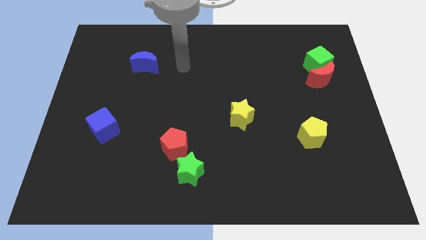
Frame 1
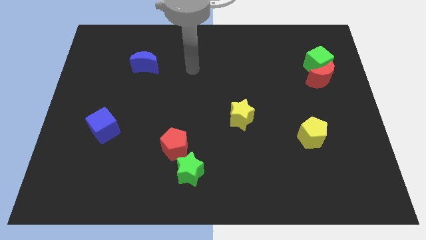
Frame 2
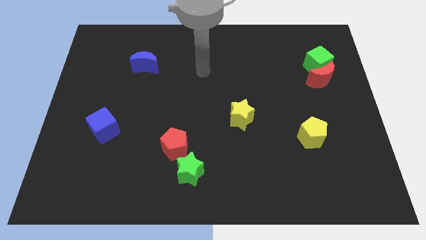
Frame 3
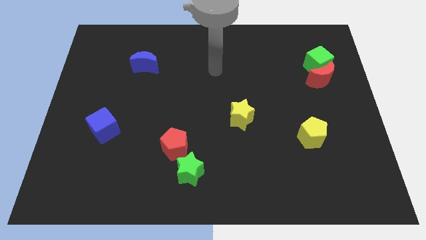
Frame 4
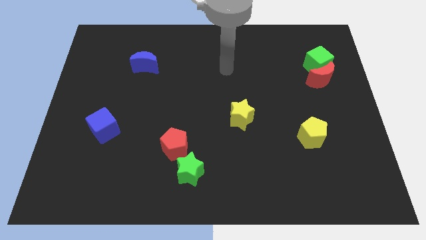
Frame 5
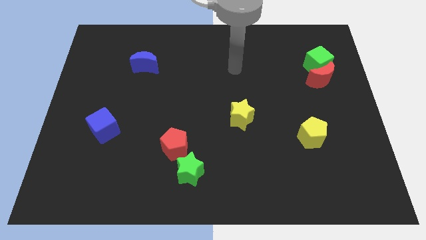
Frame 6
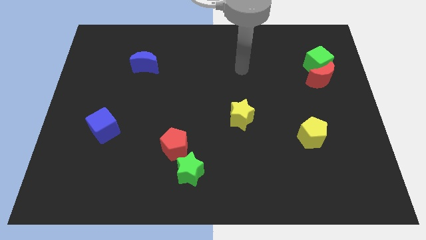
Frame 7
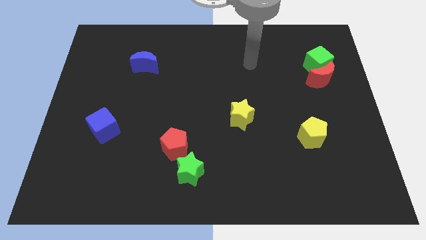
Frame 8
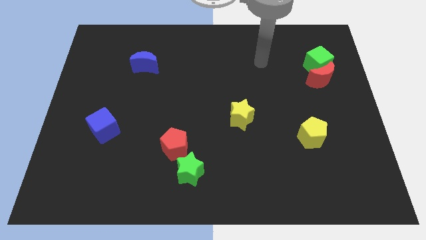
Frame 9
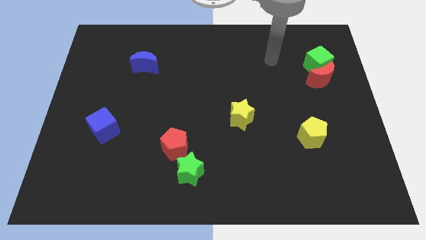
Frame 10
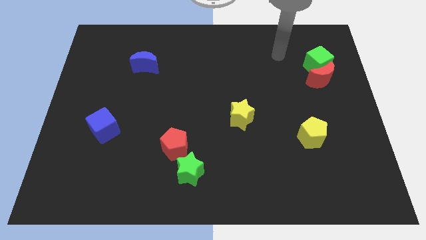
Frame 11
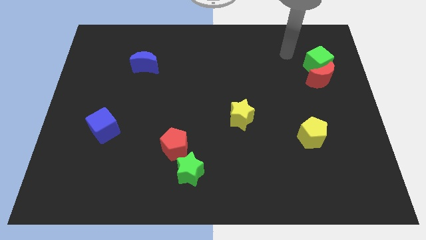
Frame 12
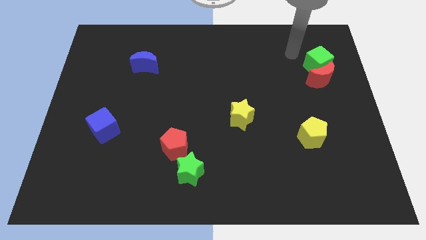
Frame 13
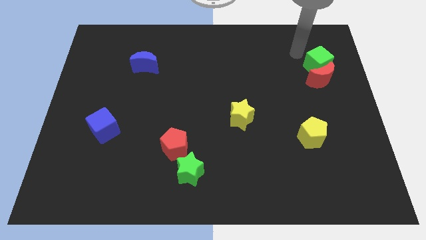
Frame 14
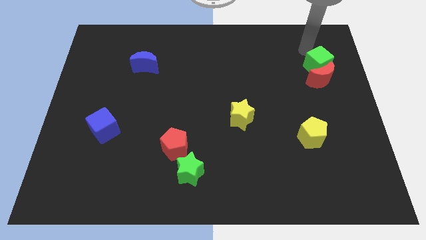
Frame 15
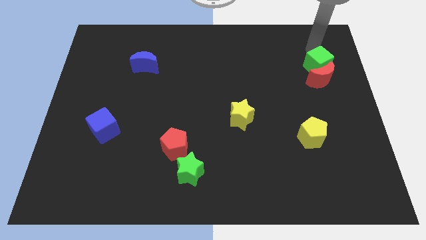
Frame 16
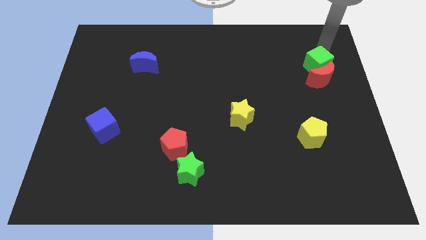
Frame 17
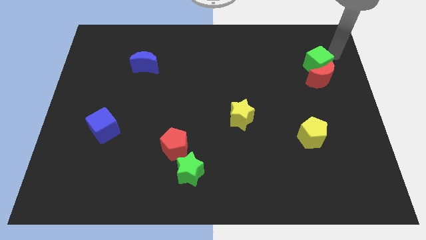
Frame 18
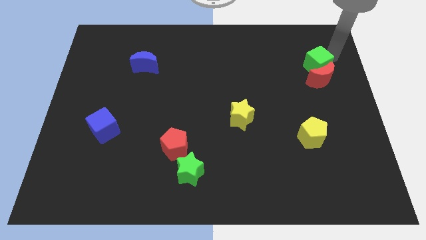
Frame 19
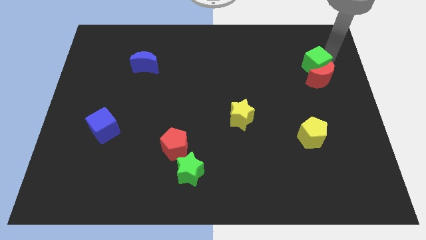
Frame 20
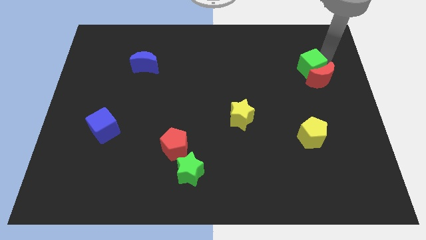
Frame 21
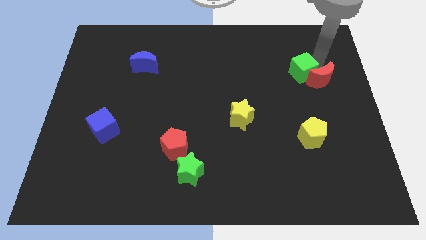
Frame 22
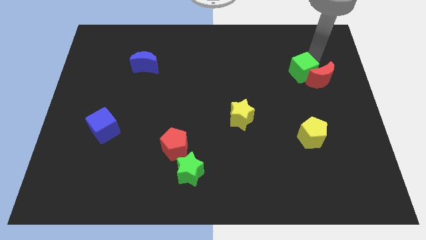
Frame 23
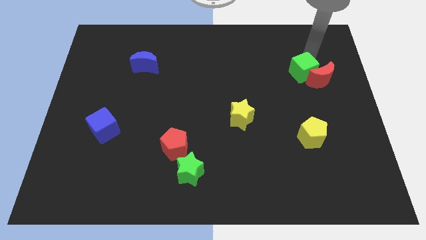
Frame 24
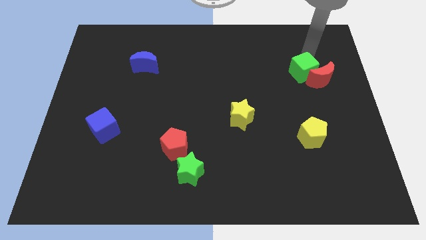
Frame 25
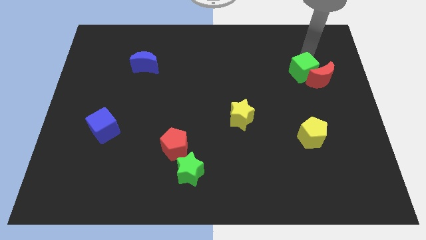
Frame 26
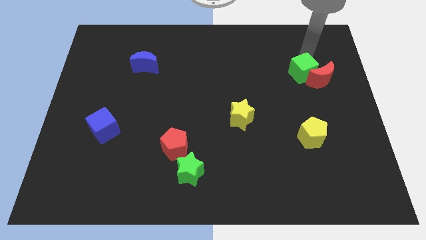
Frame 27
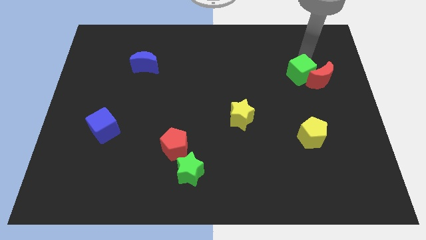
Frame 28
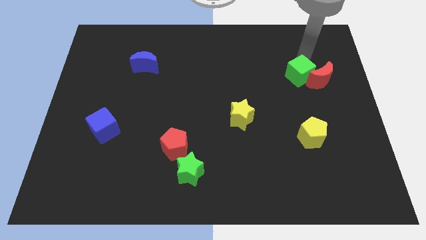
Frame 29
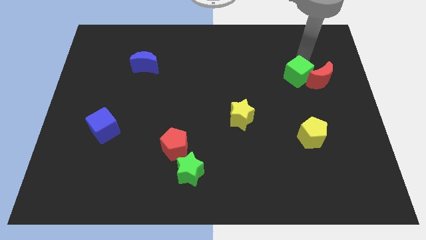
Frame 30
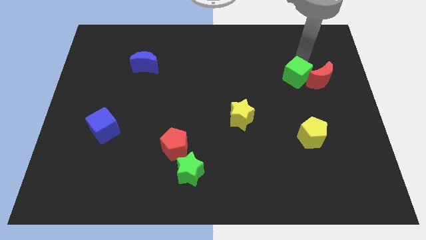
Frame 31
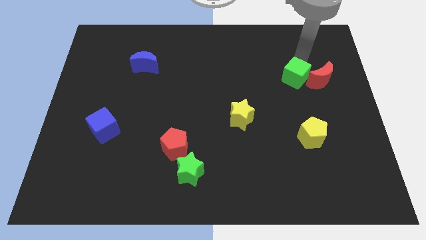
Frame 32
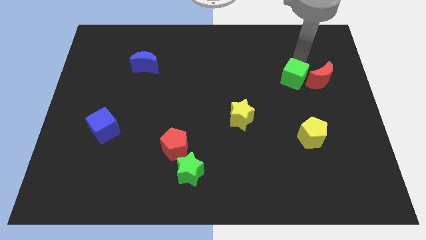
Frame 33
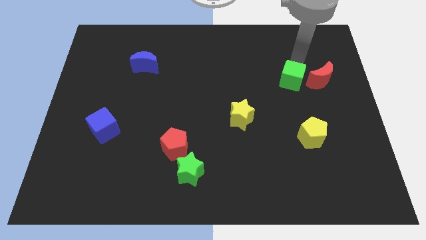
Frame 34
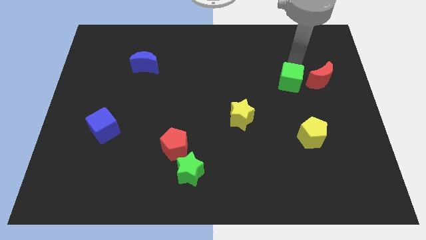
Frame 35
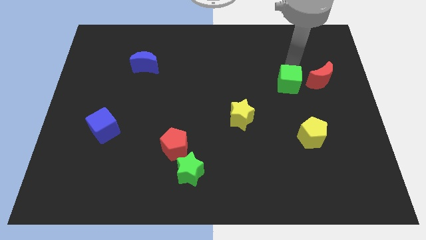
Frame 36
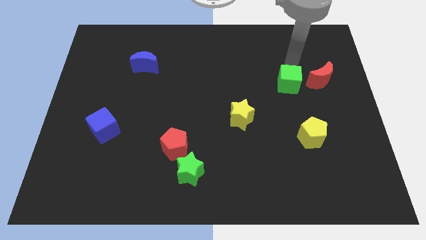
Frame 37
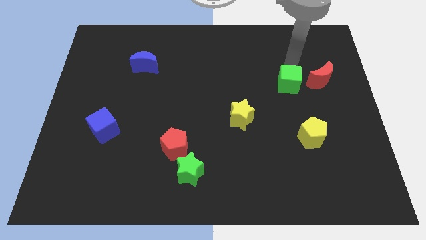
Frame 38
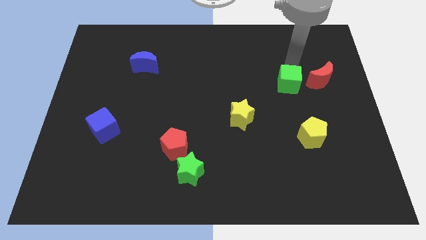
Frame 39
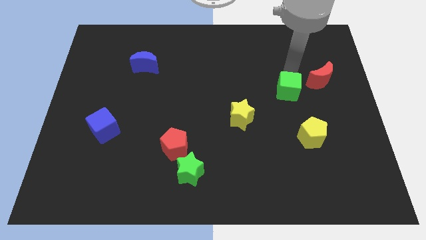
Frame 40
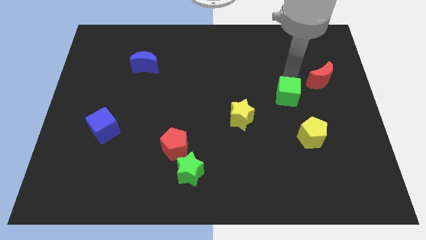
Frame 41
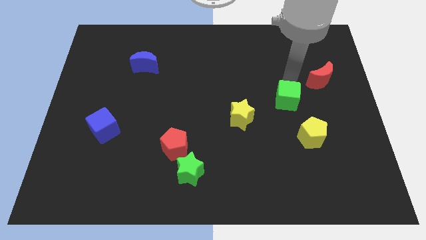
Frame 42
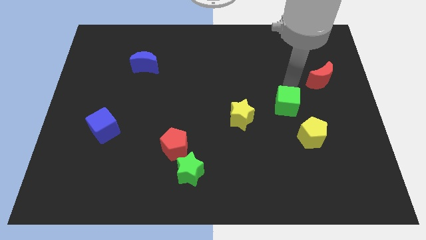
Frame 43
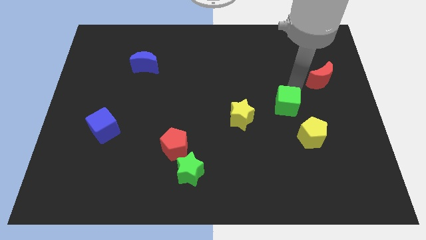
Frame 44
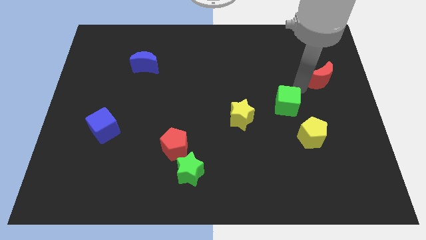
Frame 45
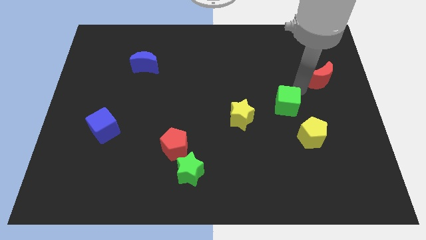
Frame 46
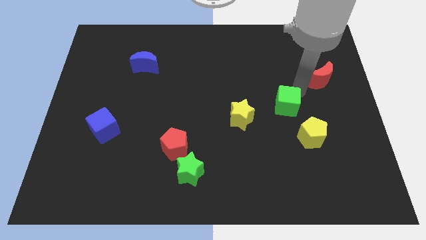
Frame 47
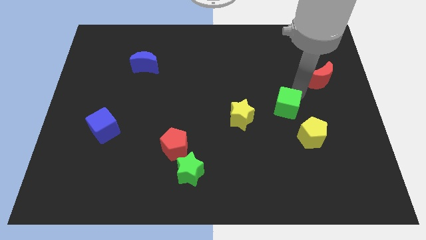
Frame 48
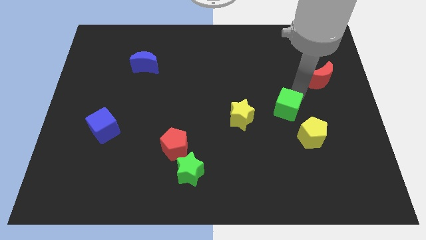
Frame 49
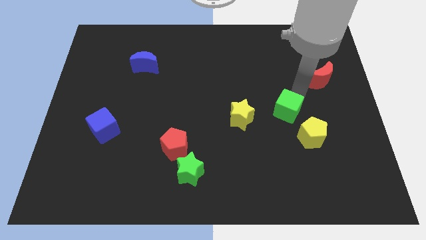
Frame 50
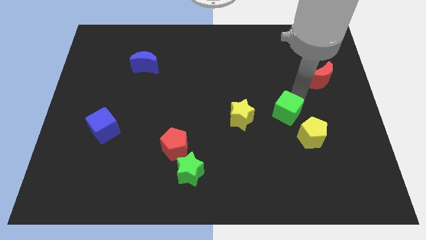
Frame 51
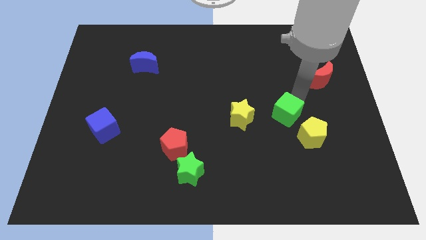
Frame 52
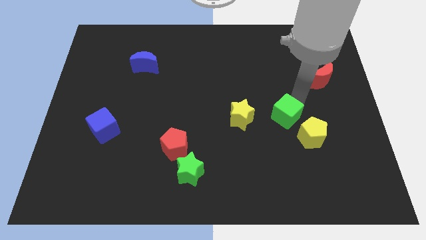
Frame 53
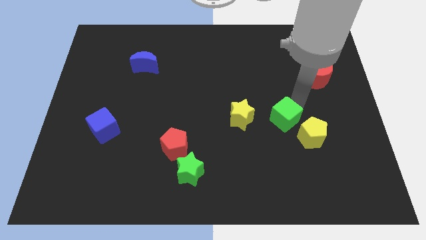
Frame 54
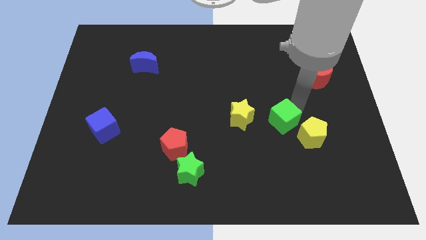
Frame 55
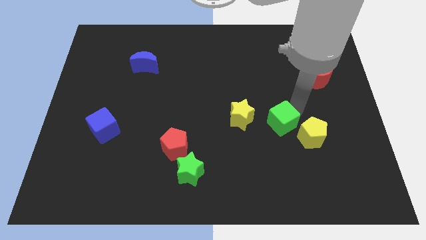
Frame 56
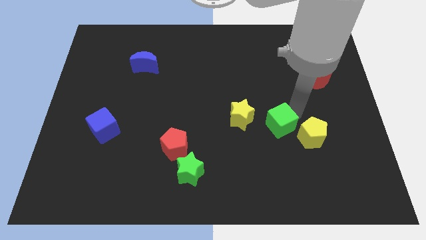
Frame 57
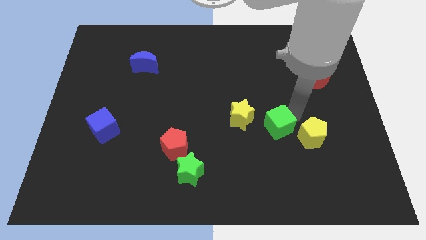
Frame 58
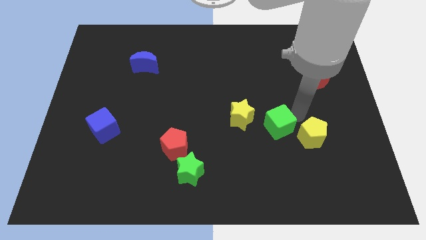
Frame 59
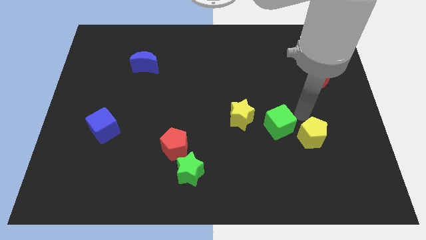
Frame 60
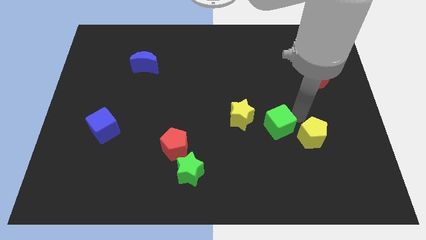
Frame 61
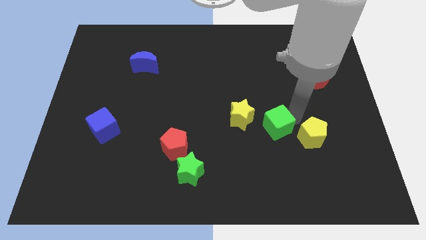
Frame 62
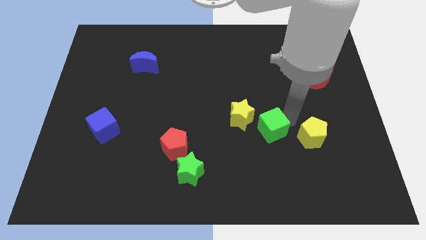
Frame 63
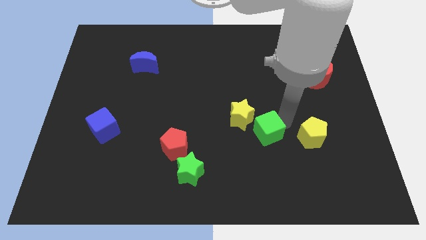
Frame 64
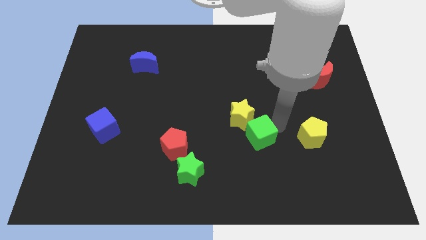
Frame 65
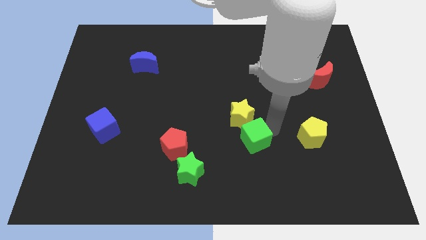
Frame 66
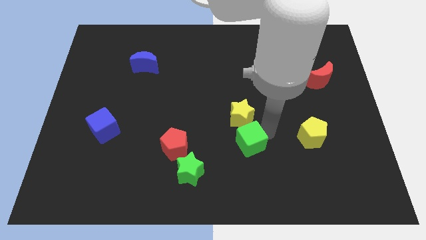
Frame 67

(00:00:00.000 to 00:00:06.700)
put the green cube to the right of the red pentagon
